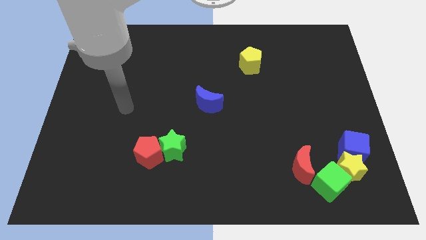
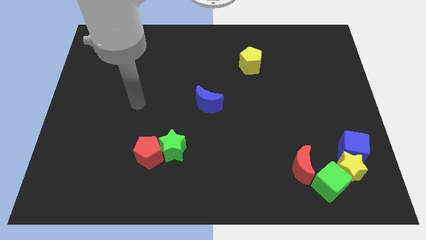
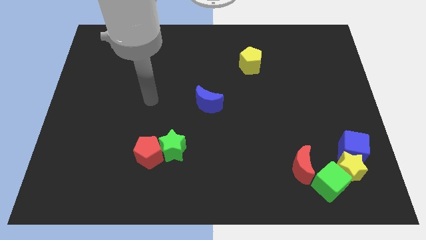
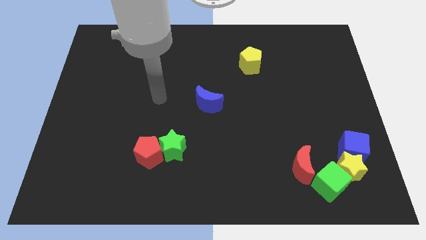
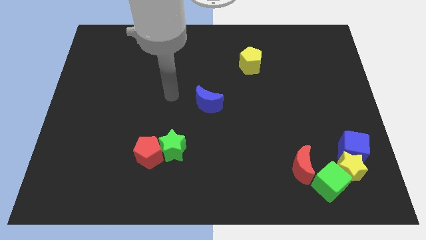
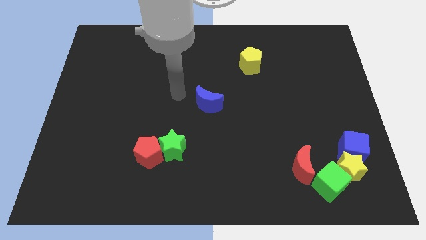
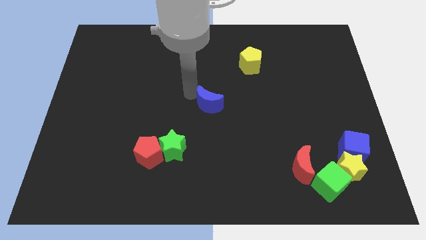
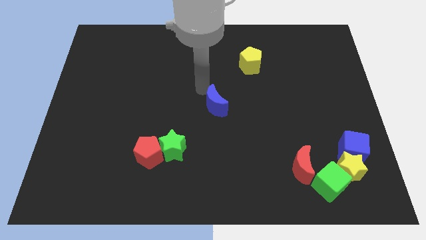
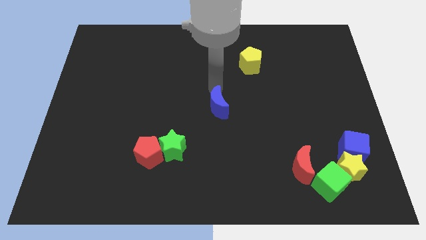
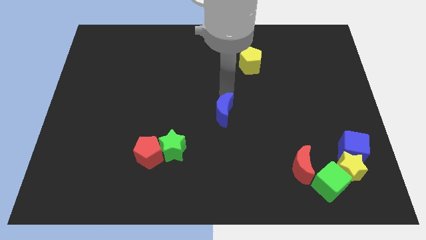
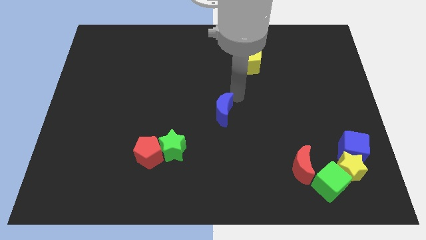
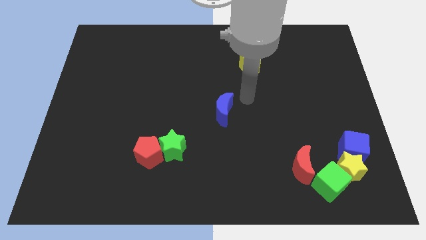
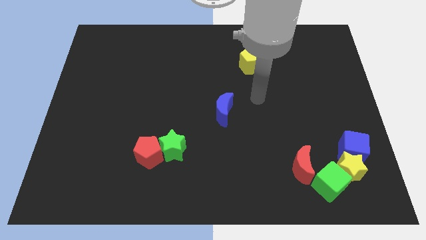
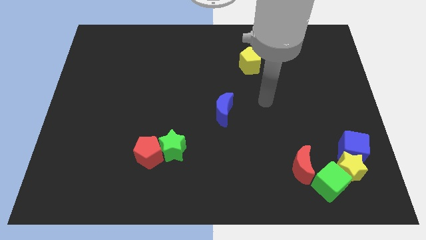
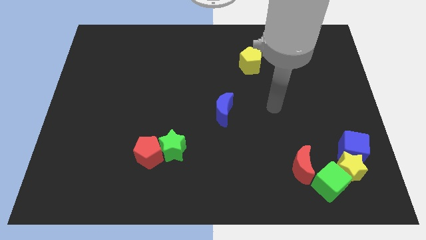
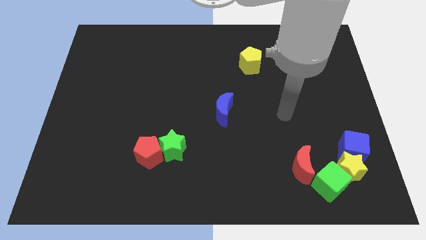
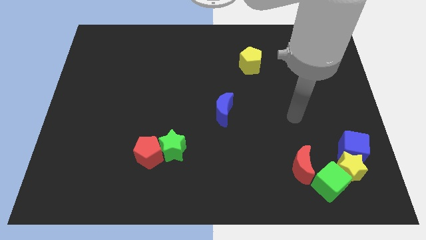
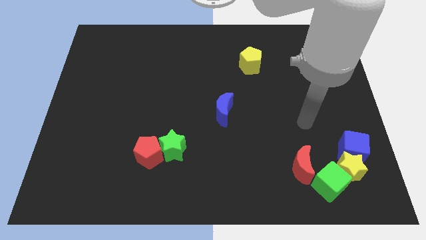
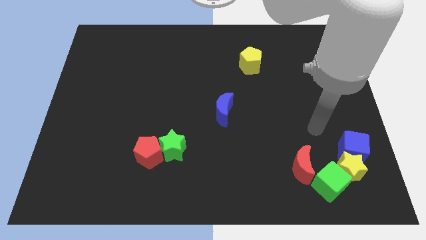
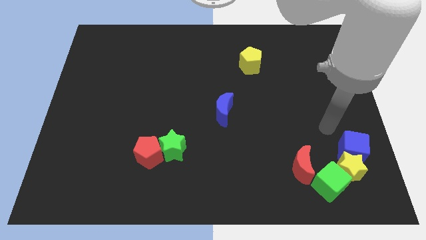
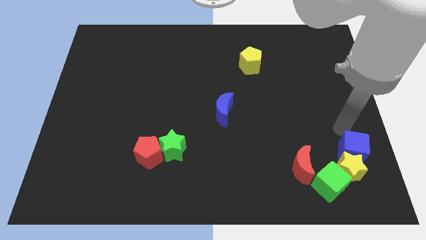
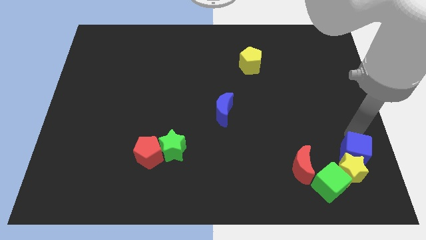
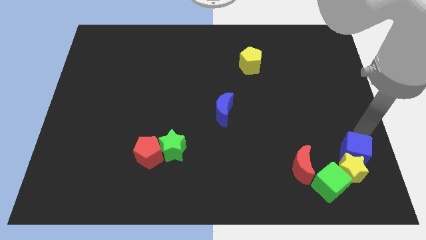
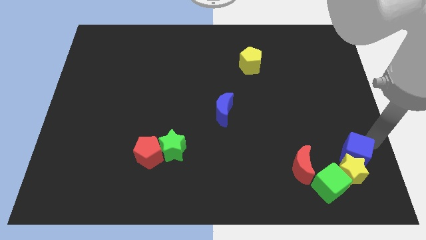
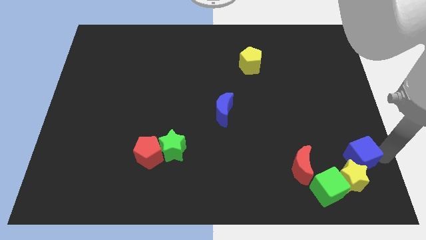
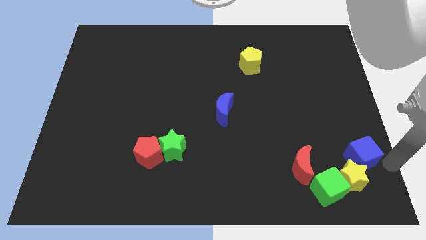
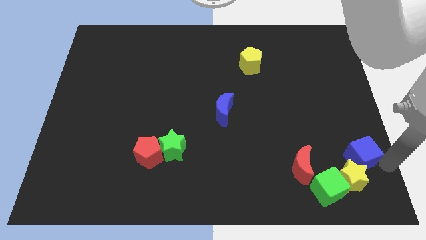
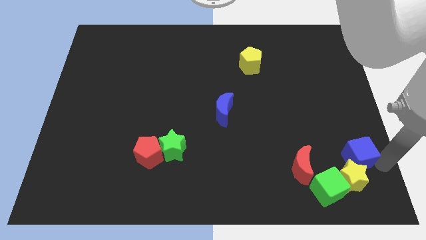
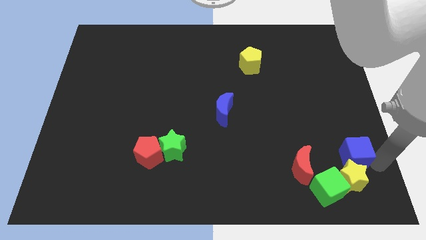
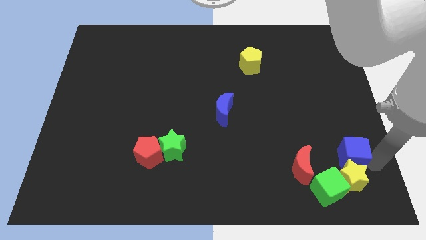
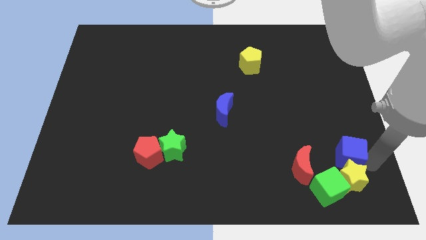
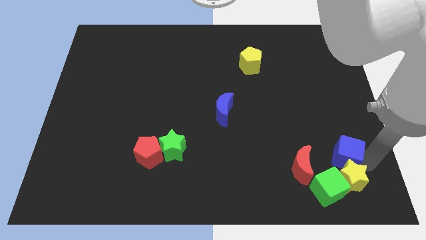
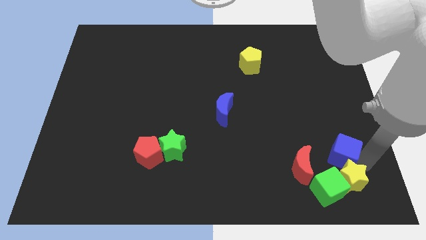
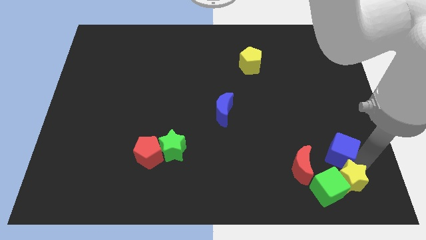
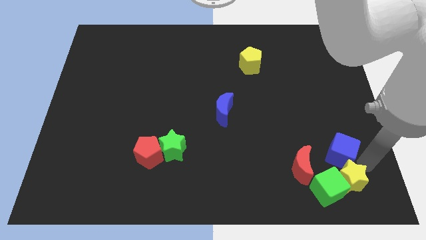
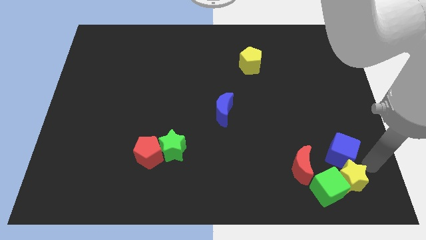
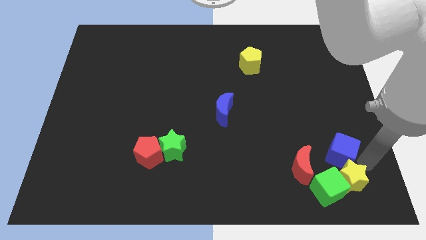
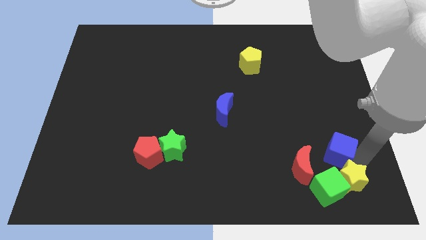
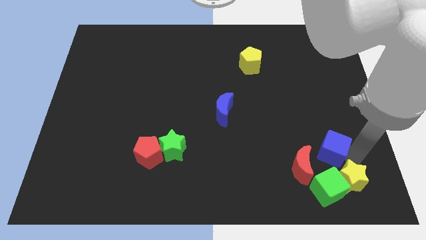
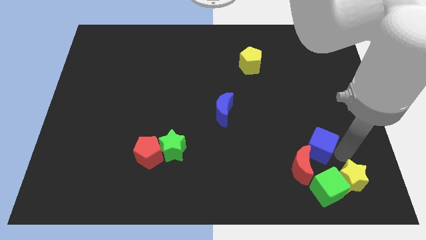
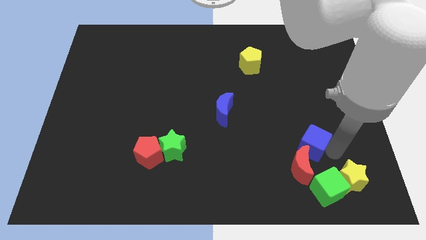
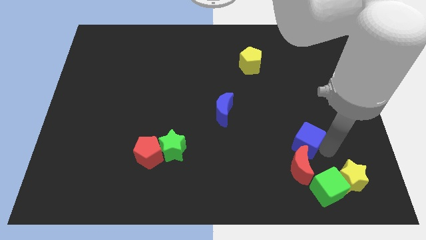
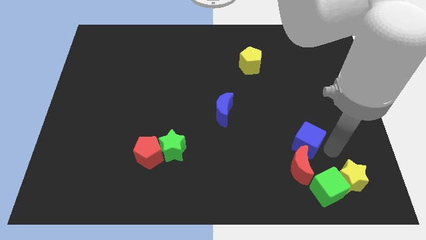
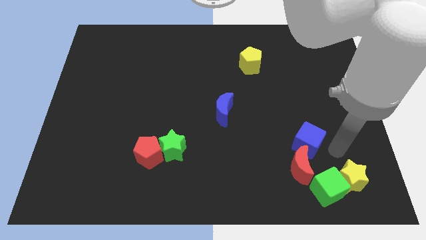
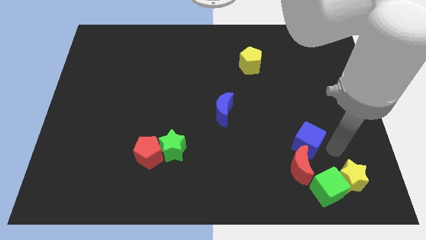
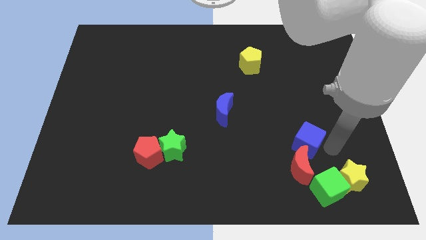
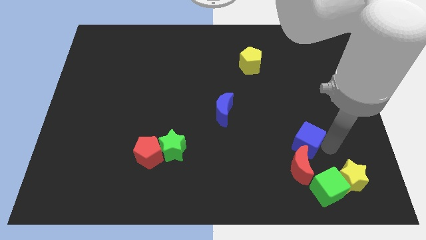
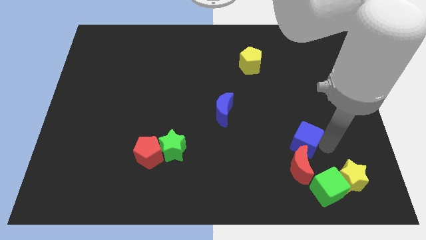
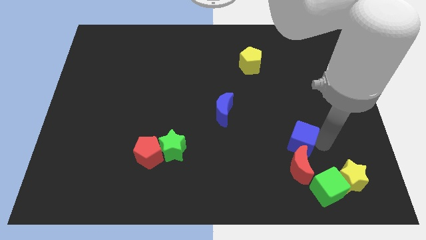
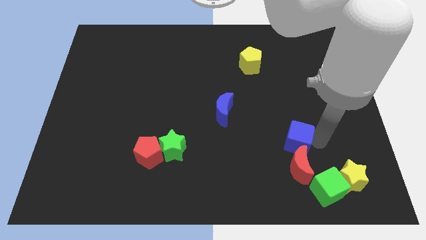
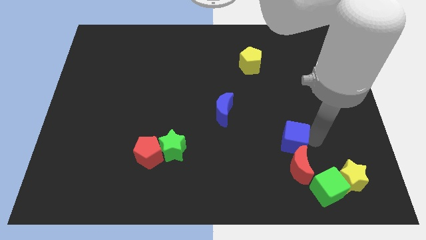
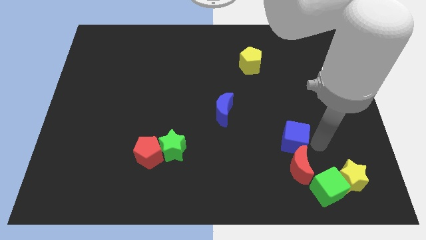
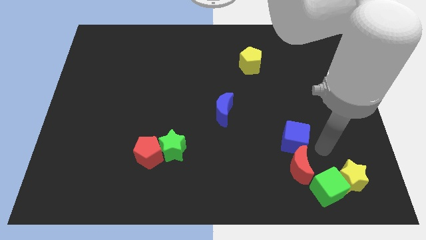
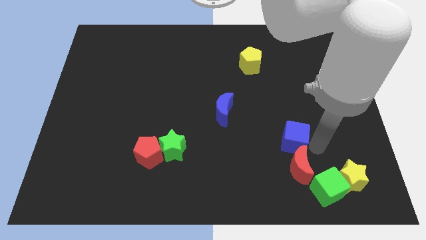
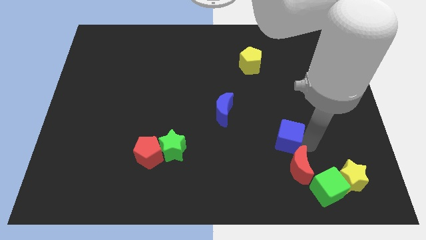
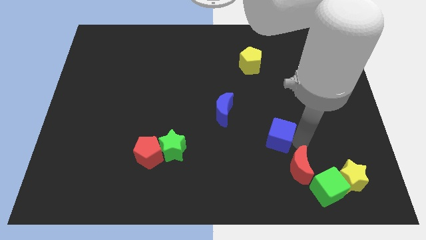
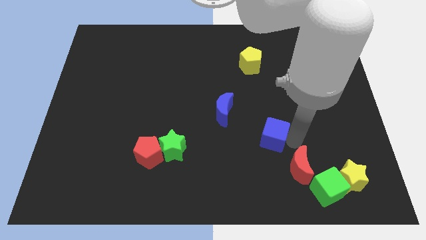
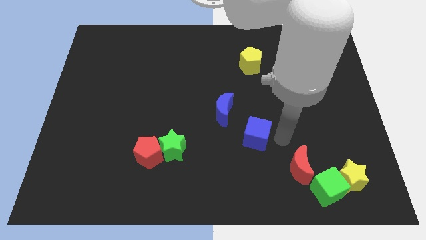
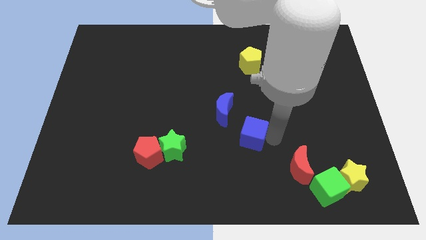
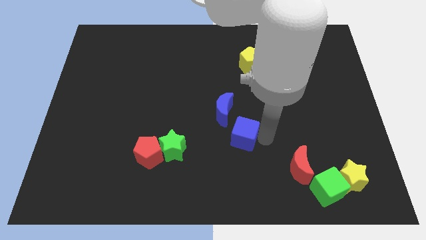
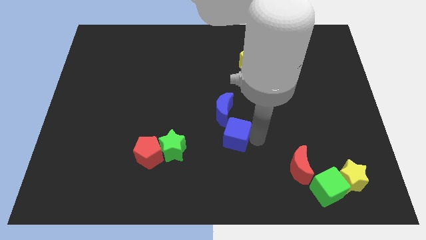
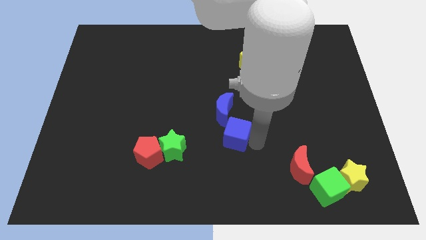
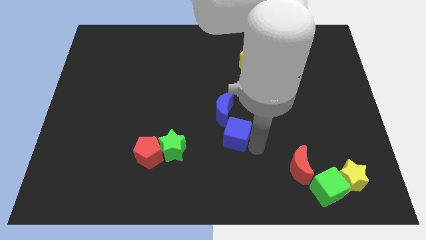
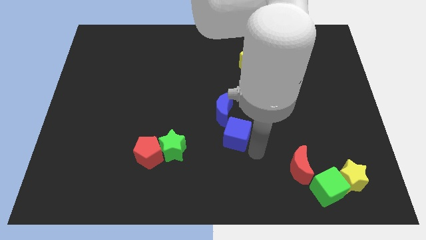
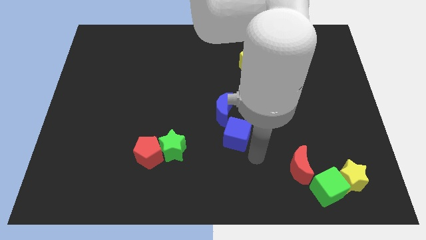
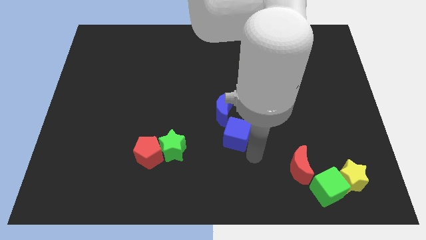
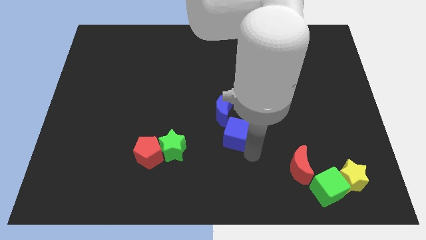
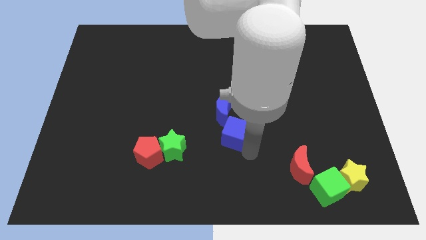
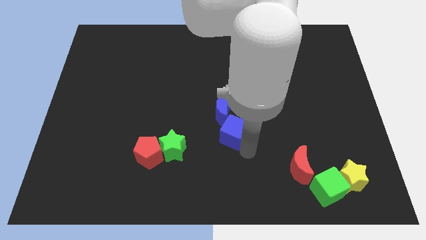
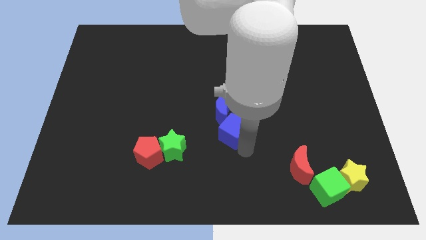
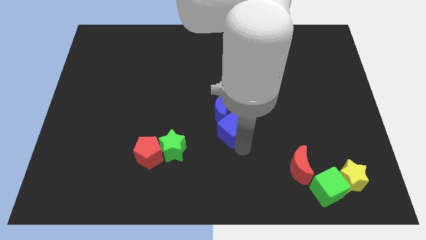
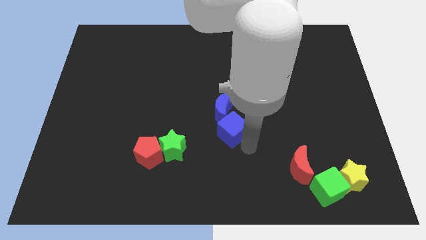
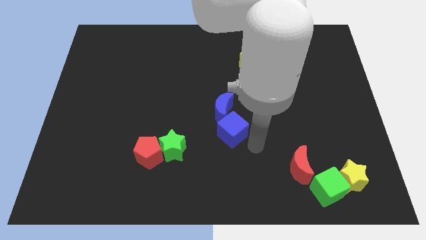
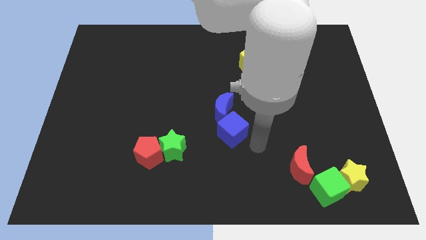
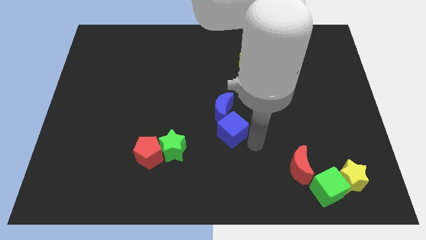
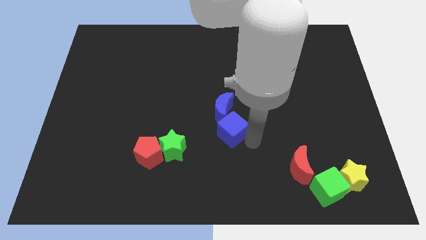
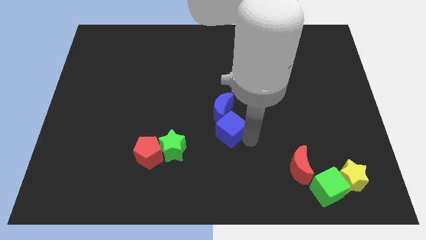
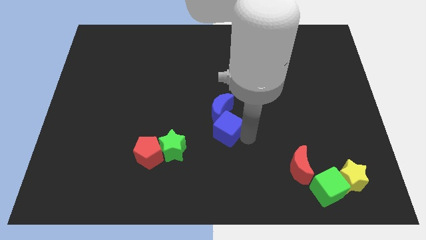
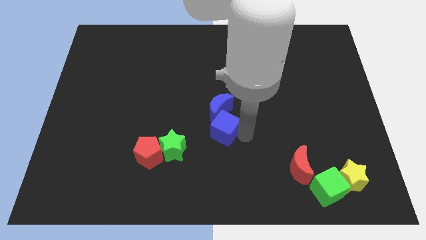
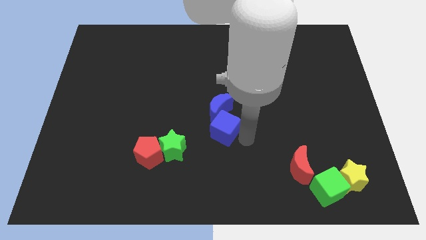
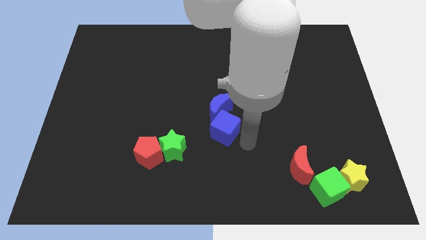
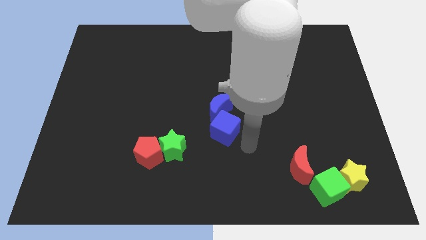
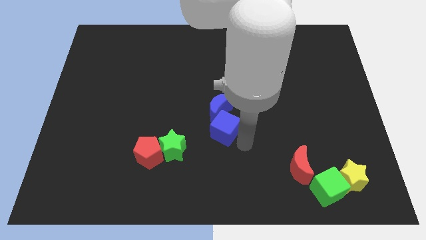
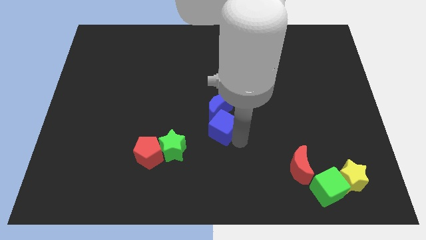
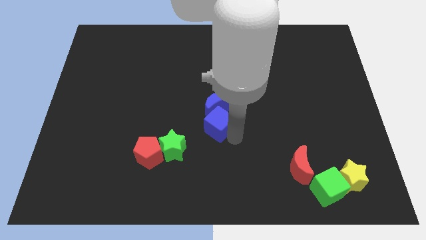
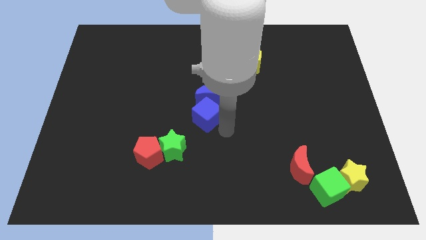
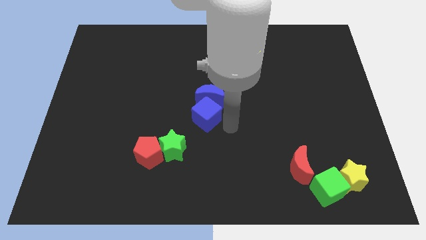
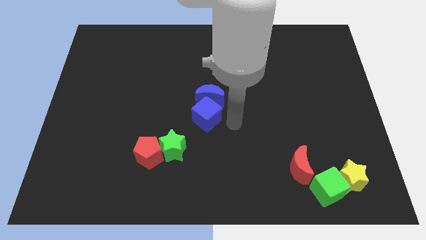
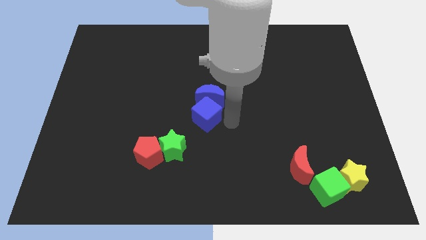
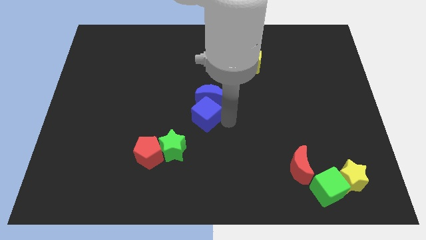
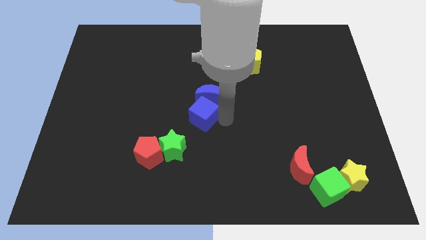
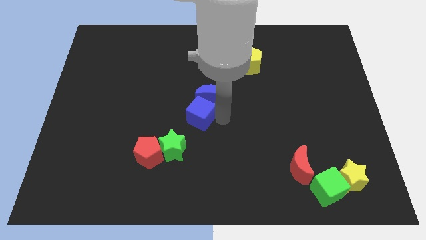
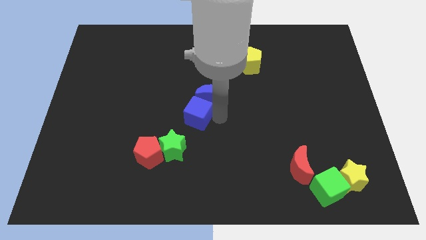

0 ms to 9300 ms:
push the blue cube above the green star
